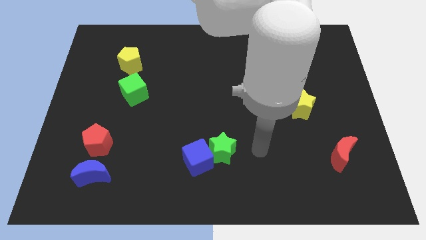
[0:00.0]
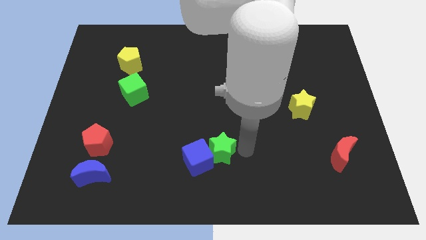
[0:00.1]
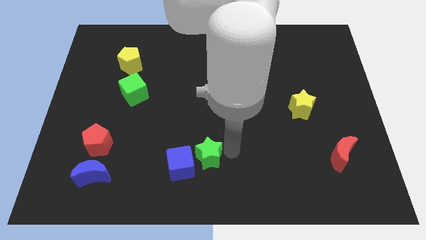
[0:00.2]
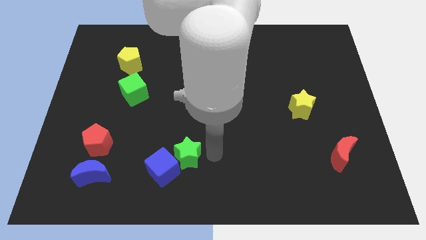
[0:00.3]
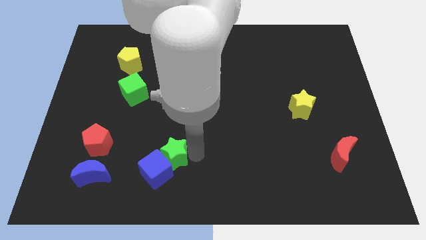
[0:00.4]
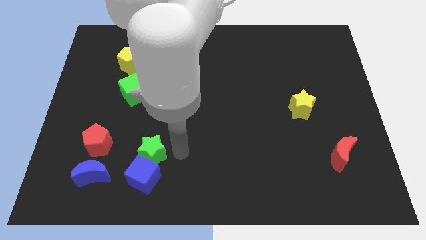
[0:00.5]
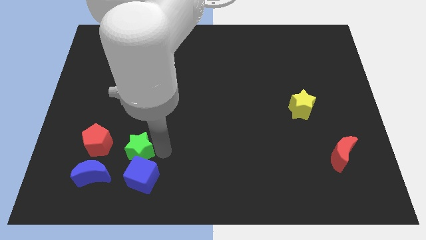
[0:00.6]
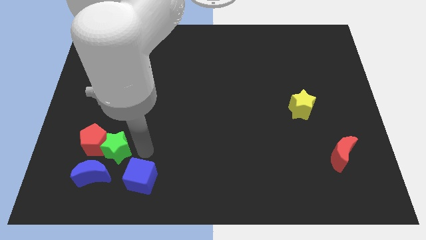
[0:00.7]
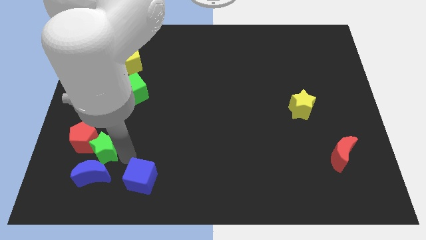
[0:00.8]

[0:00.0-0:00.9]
separate the blue cube from the green star

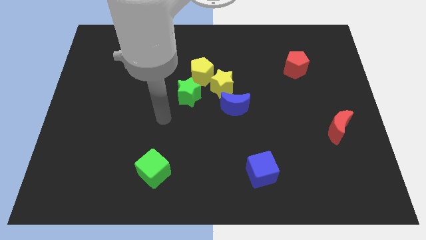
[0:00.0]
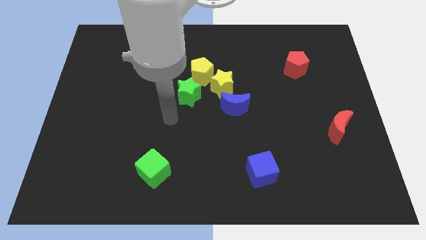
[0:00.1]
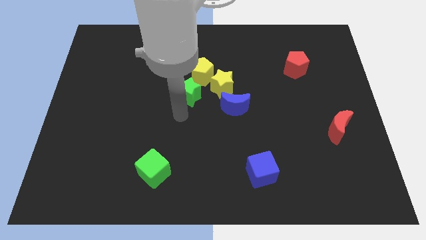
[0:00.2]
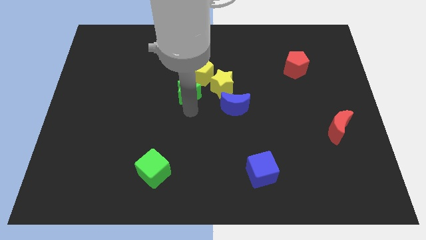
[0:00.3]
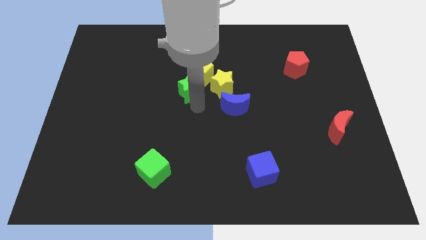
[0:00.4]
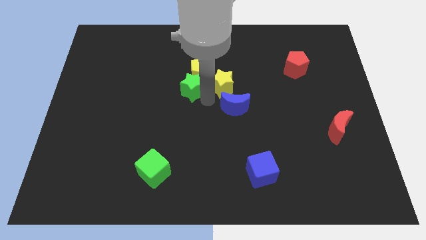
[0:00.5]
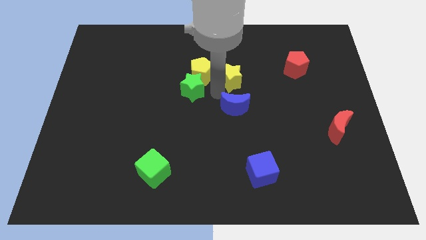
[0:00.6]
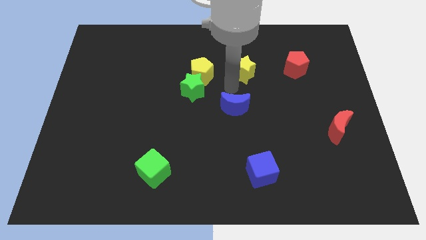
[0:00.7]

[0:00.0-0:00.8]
pull the blue moon apart from the yellow star

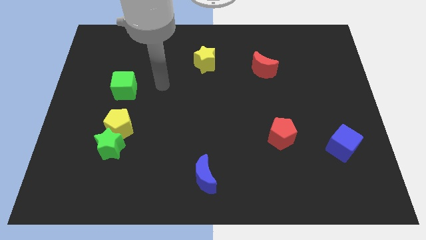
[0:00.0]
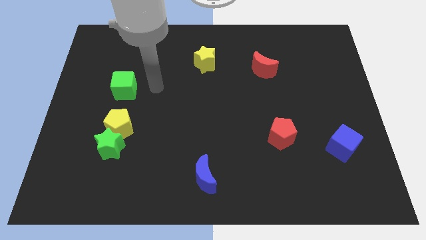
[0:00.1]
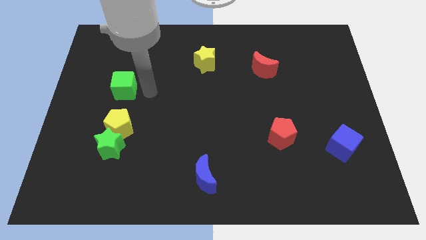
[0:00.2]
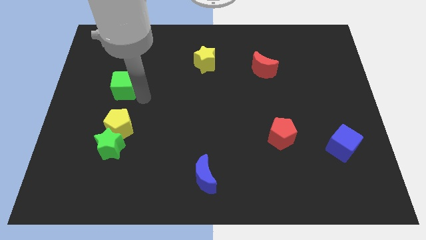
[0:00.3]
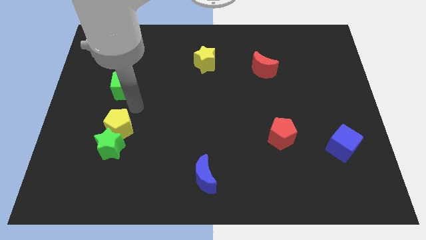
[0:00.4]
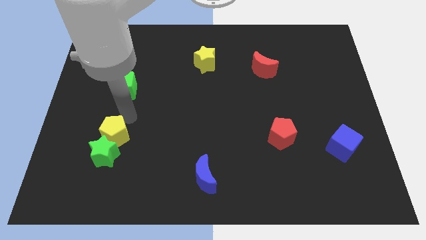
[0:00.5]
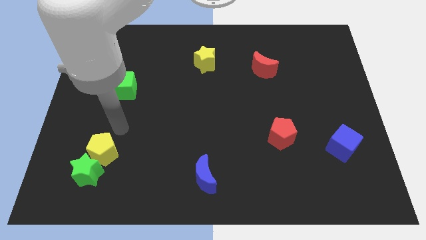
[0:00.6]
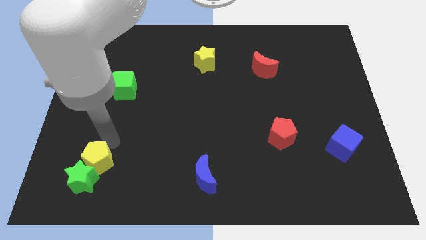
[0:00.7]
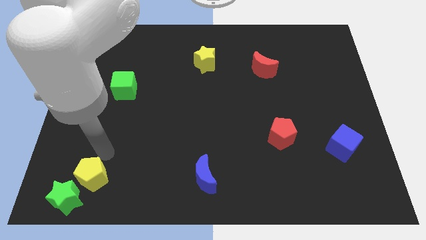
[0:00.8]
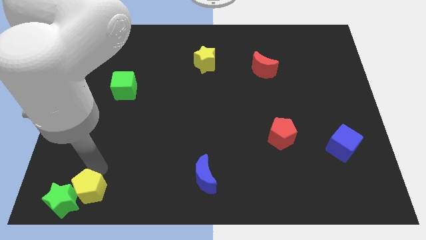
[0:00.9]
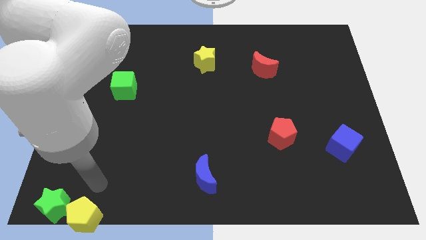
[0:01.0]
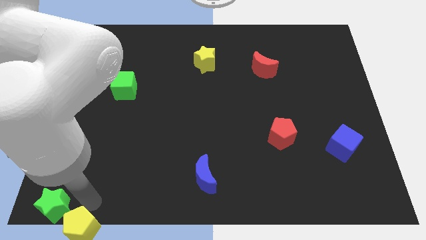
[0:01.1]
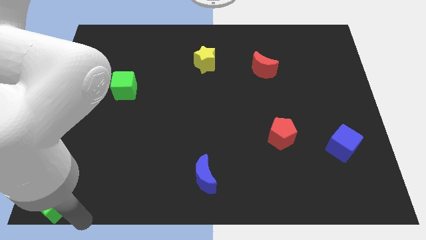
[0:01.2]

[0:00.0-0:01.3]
separate the green star from the yellow pentagon

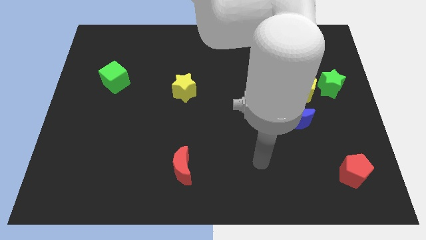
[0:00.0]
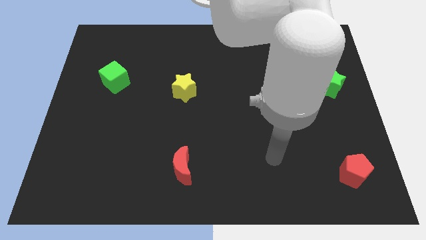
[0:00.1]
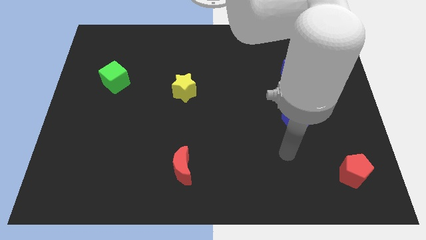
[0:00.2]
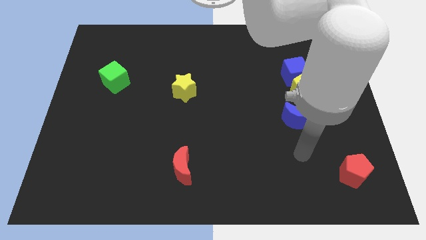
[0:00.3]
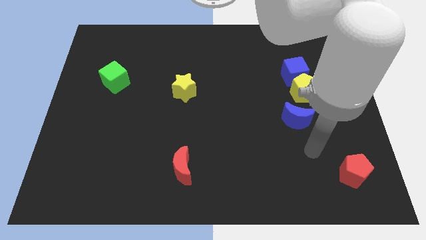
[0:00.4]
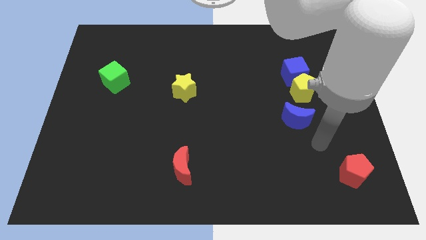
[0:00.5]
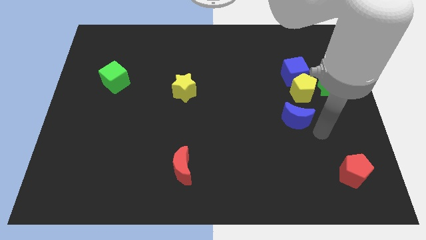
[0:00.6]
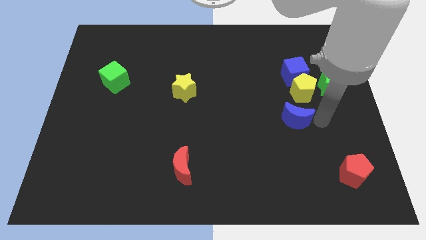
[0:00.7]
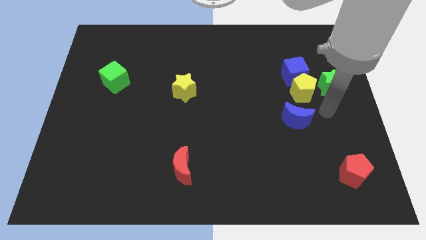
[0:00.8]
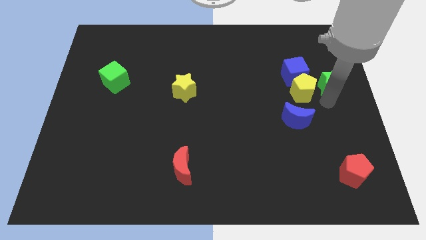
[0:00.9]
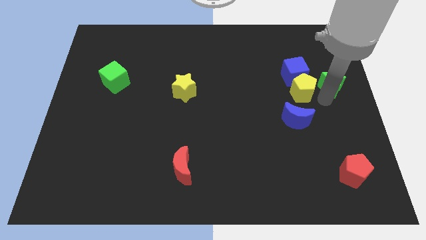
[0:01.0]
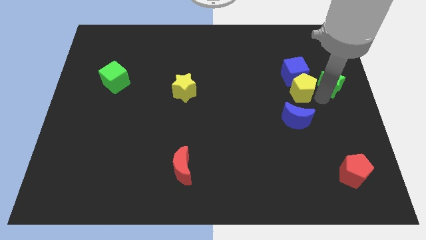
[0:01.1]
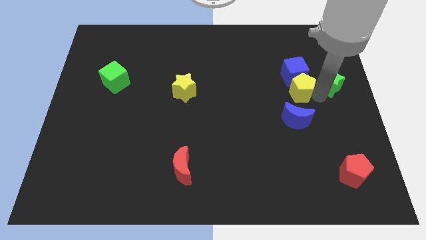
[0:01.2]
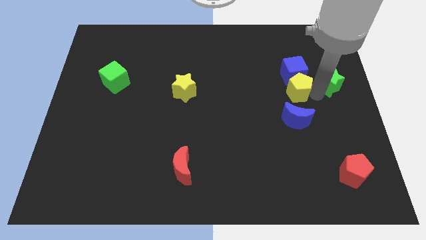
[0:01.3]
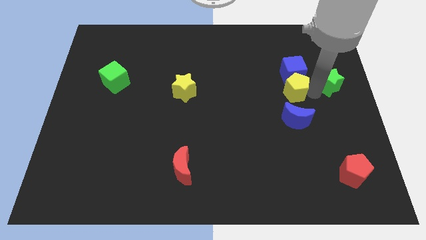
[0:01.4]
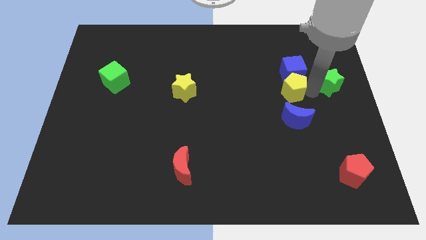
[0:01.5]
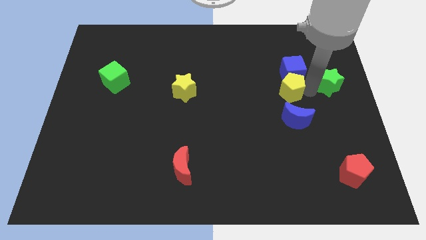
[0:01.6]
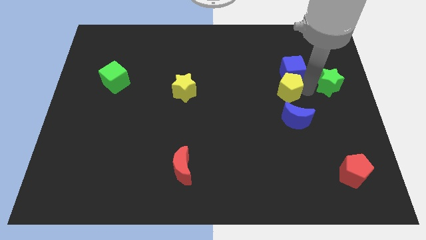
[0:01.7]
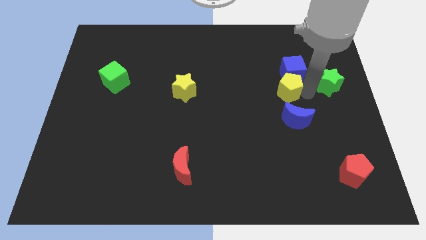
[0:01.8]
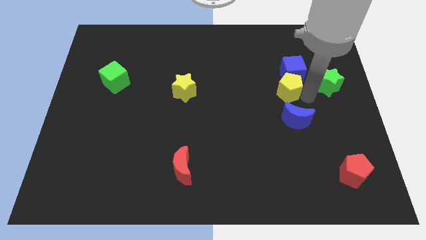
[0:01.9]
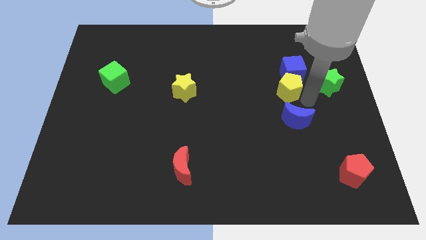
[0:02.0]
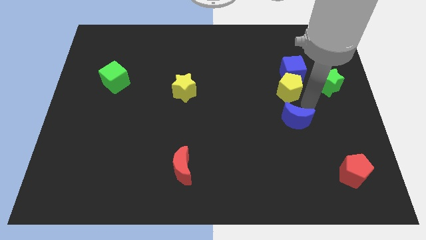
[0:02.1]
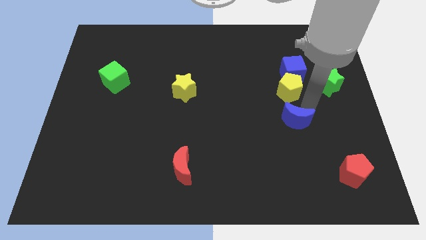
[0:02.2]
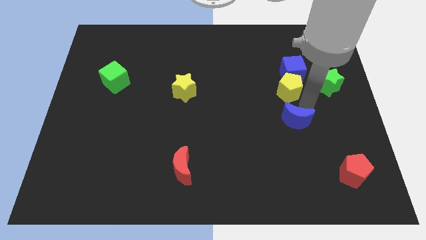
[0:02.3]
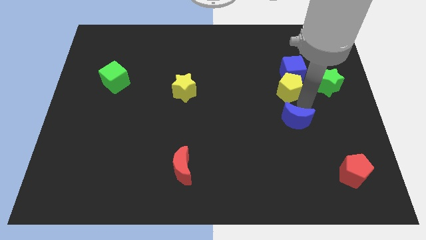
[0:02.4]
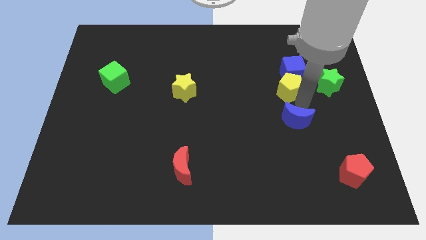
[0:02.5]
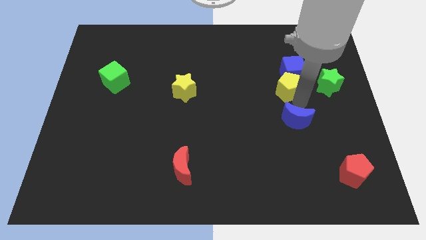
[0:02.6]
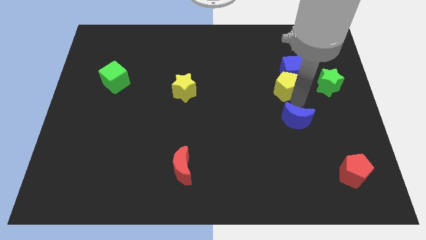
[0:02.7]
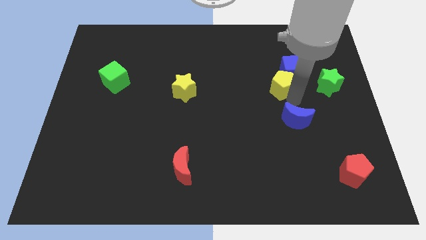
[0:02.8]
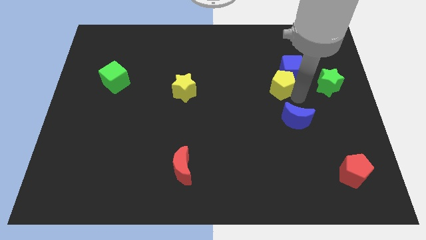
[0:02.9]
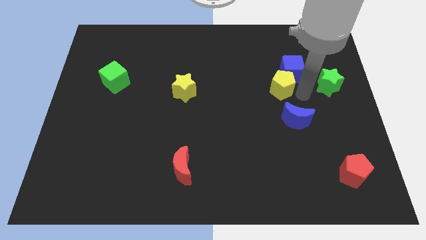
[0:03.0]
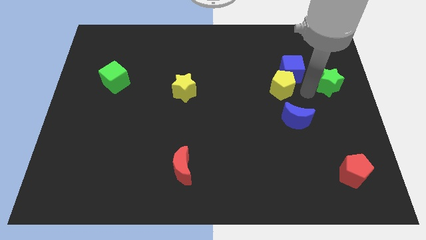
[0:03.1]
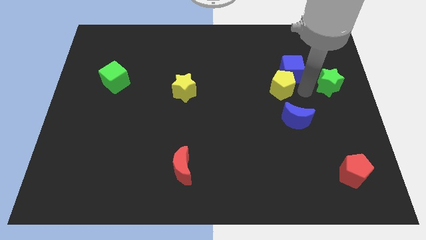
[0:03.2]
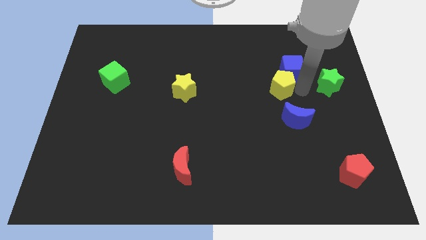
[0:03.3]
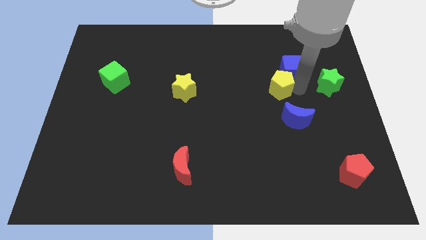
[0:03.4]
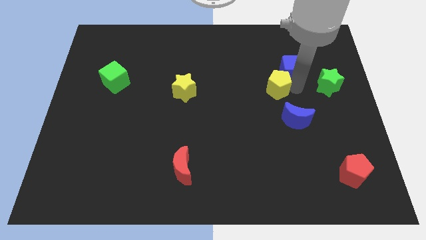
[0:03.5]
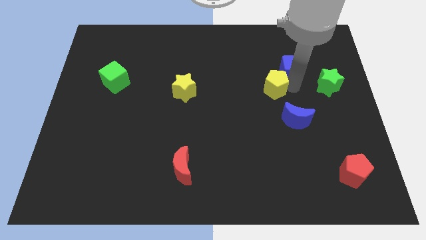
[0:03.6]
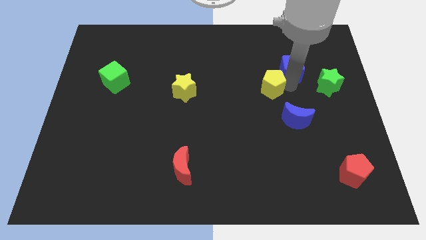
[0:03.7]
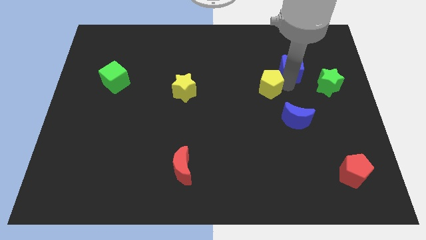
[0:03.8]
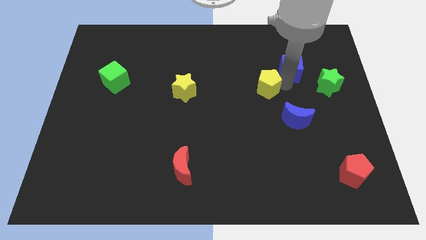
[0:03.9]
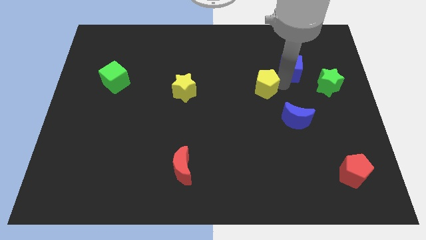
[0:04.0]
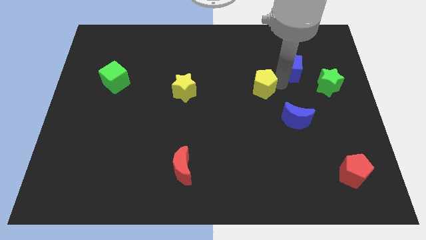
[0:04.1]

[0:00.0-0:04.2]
pull the yellow pentagon apart from the group of blocks

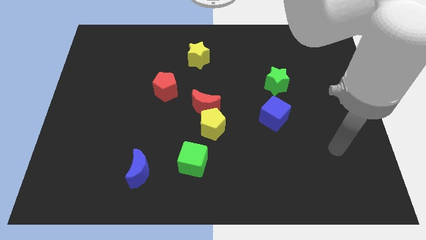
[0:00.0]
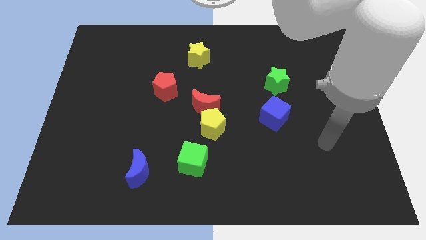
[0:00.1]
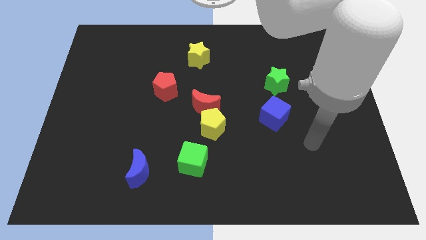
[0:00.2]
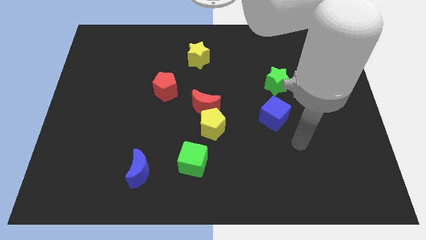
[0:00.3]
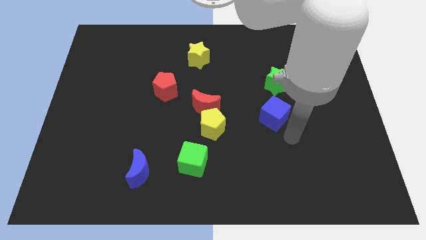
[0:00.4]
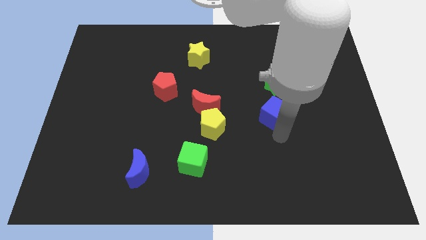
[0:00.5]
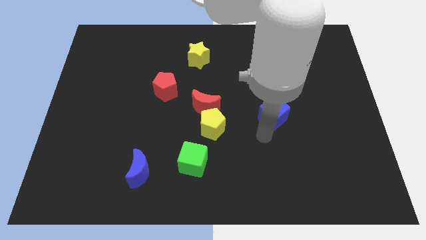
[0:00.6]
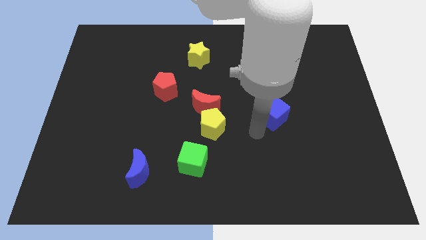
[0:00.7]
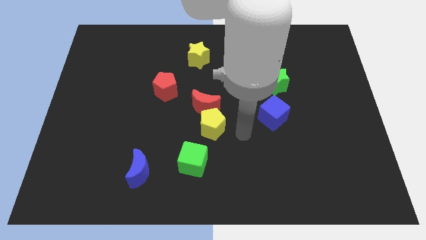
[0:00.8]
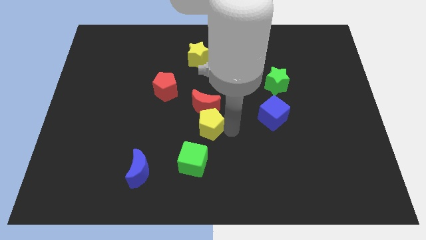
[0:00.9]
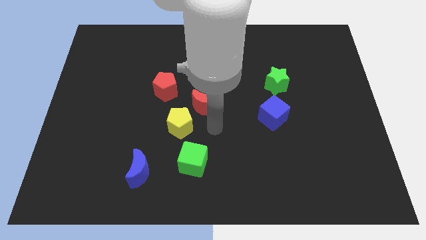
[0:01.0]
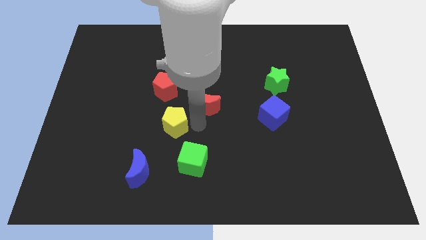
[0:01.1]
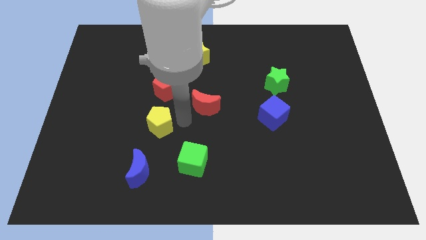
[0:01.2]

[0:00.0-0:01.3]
separate the red moon from the yellow pentagon

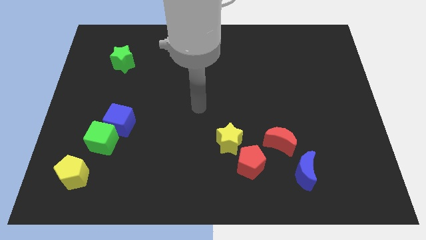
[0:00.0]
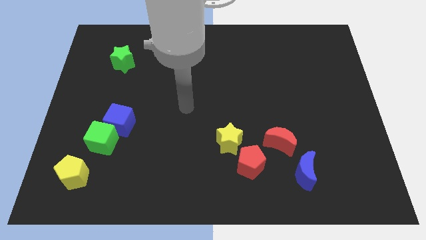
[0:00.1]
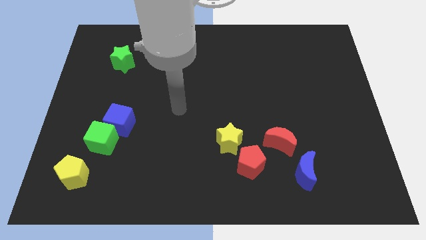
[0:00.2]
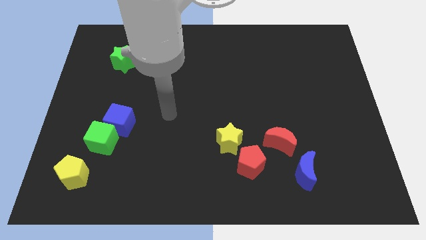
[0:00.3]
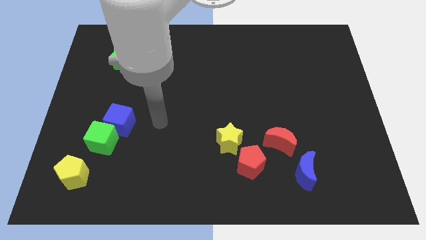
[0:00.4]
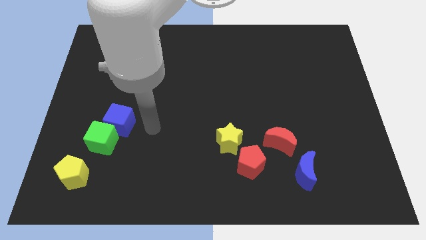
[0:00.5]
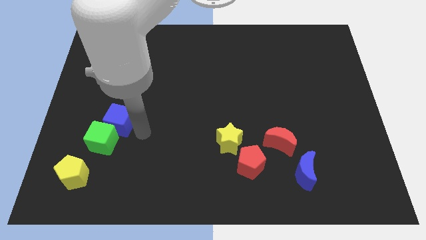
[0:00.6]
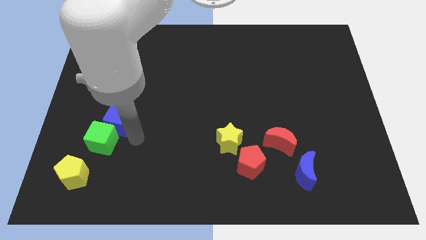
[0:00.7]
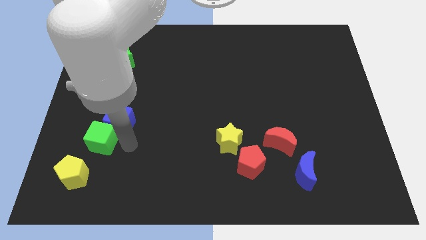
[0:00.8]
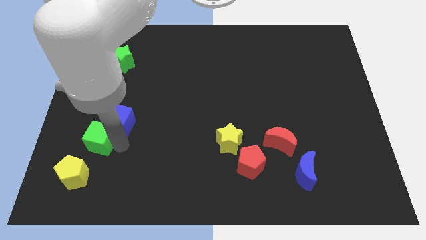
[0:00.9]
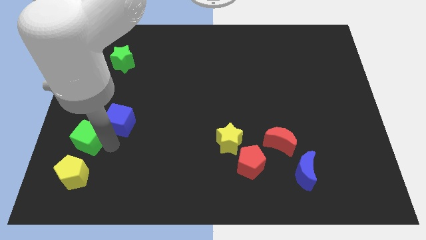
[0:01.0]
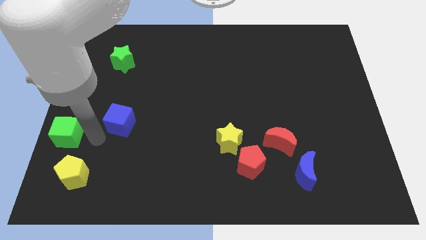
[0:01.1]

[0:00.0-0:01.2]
separate the blue cube from the green cube
